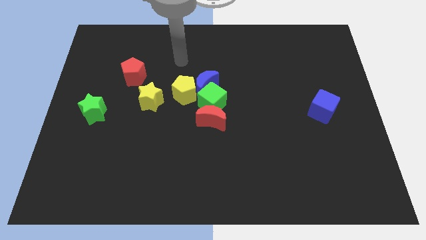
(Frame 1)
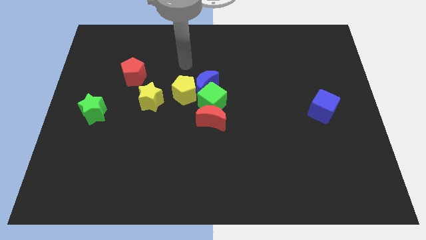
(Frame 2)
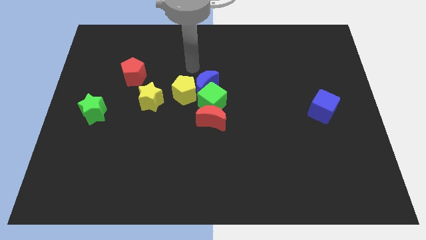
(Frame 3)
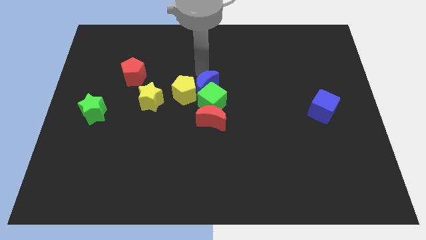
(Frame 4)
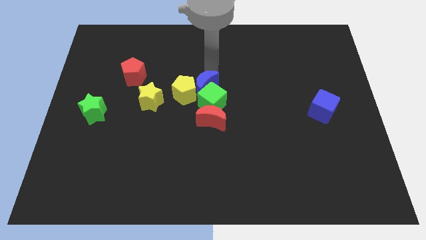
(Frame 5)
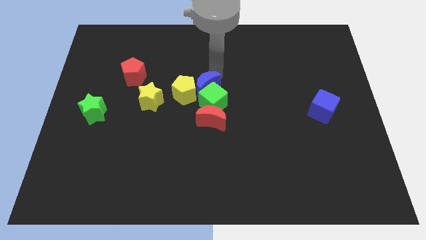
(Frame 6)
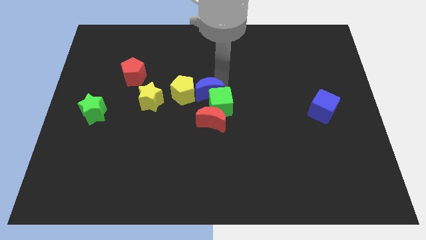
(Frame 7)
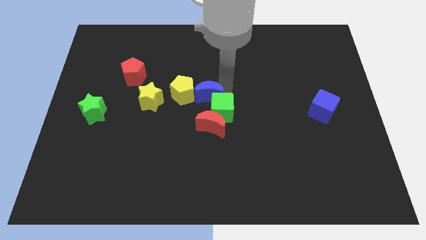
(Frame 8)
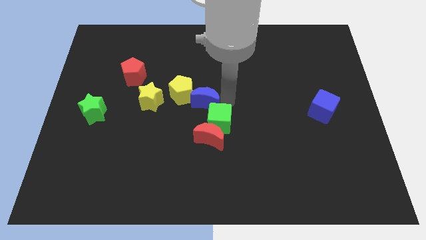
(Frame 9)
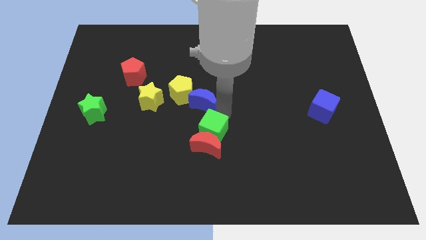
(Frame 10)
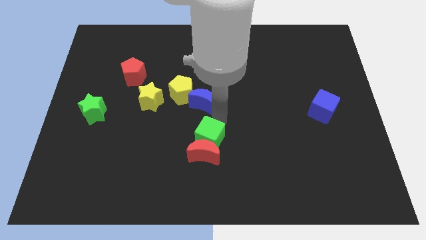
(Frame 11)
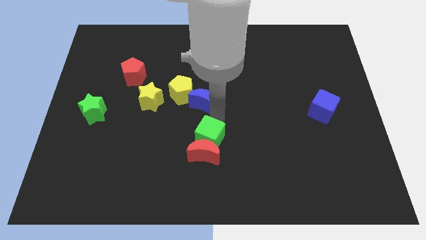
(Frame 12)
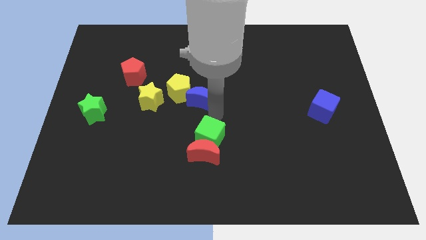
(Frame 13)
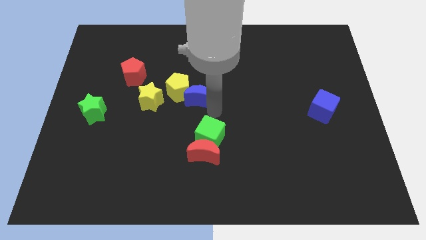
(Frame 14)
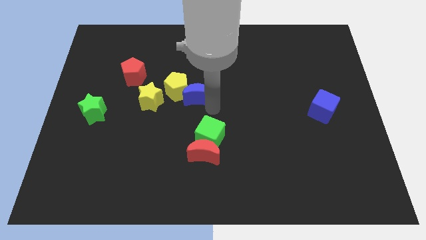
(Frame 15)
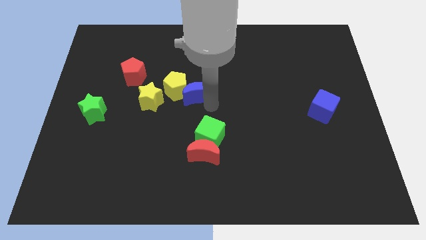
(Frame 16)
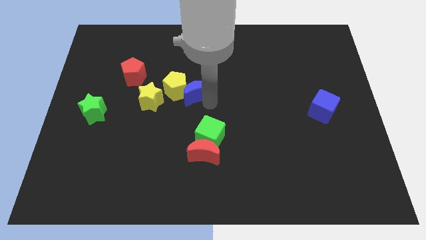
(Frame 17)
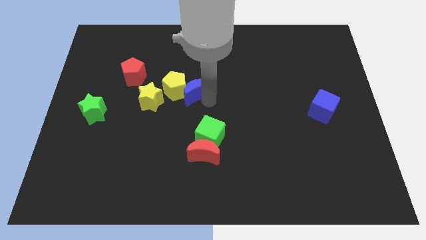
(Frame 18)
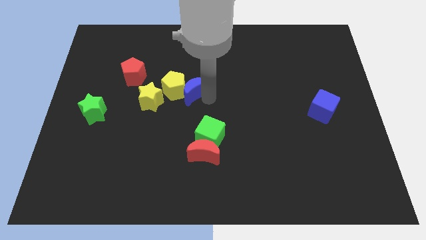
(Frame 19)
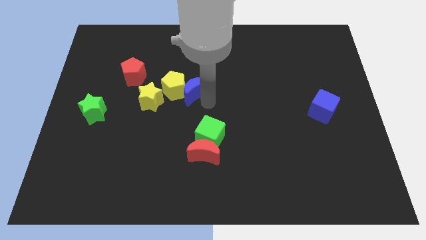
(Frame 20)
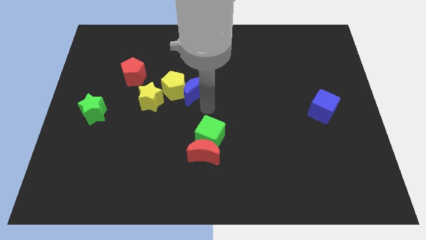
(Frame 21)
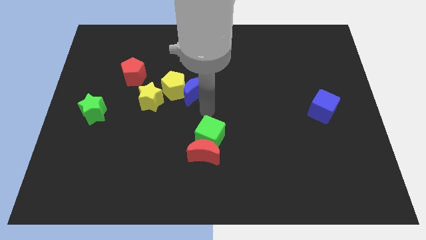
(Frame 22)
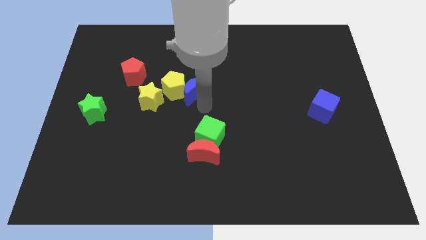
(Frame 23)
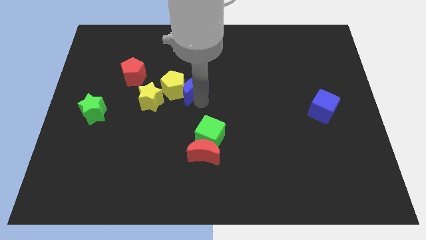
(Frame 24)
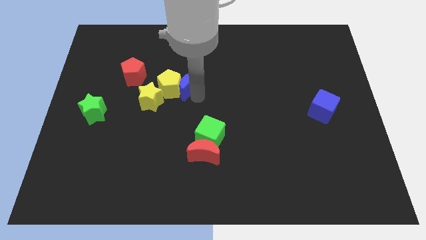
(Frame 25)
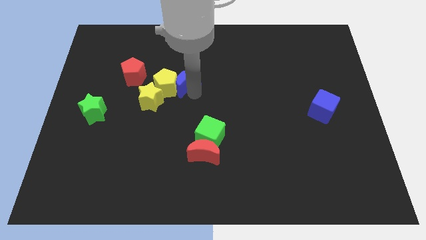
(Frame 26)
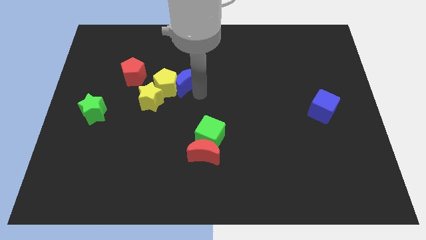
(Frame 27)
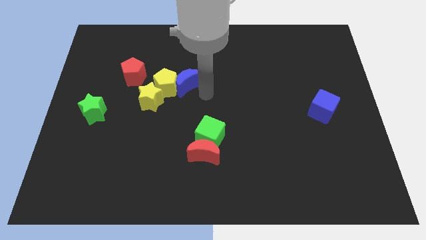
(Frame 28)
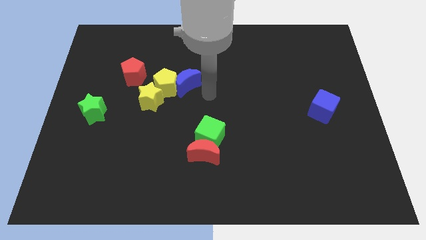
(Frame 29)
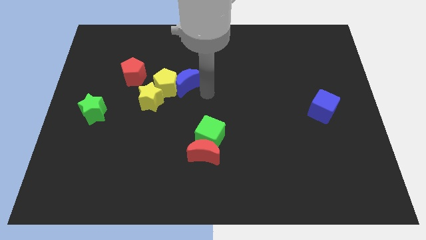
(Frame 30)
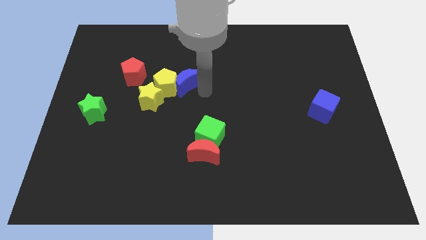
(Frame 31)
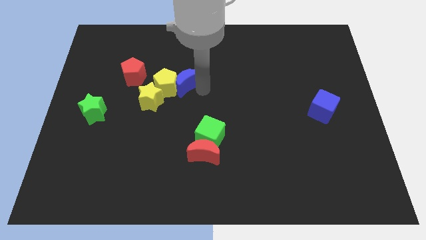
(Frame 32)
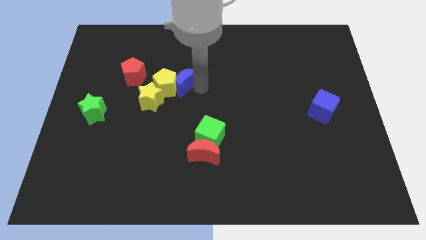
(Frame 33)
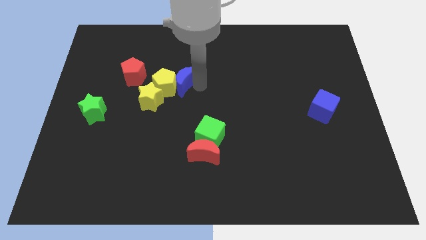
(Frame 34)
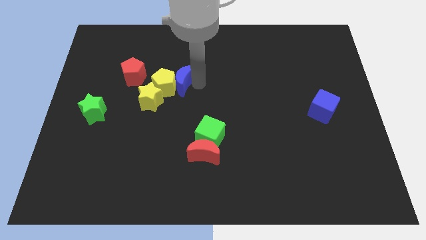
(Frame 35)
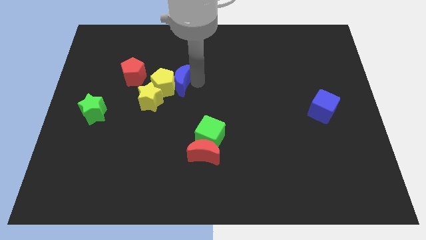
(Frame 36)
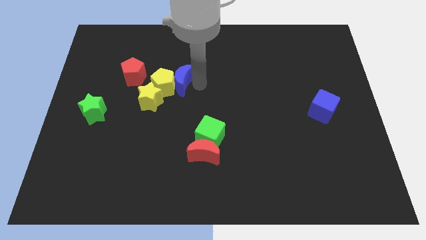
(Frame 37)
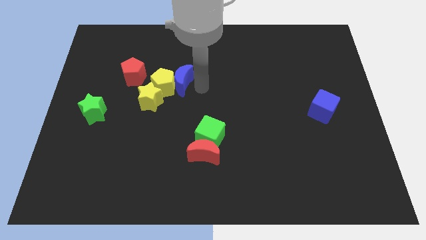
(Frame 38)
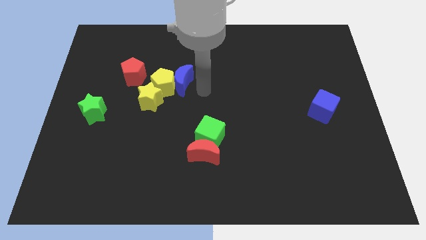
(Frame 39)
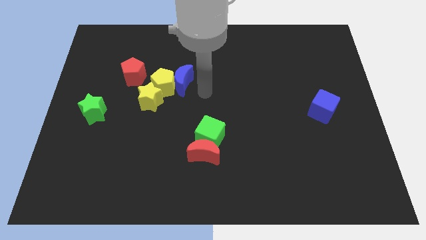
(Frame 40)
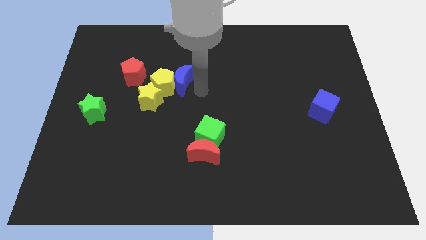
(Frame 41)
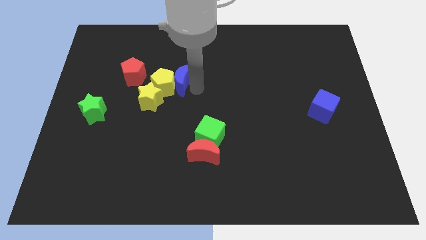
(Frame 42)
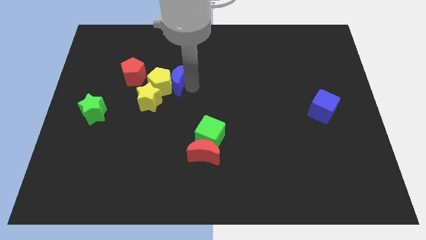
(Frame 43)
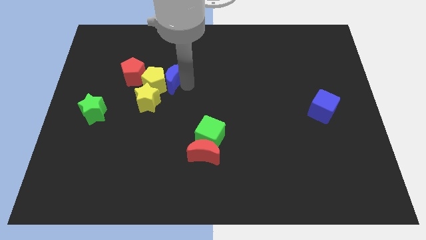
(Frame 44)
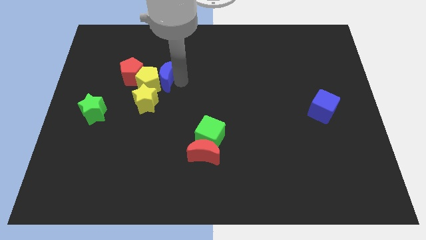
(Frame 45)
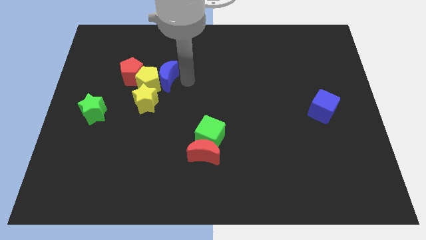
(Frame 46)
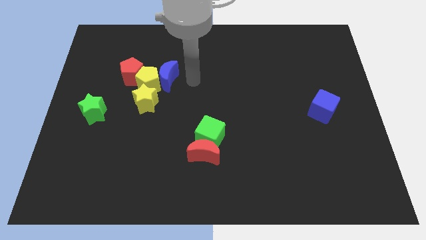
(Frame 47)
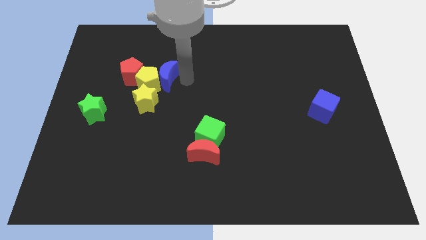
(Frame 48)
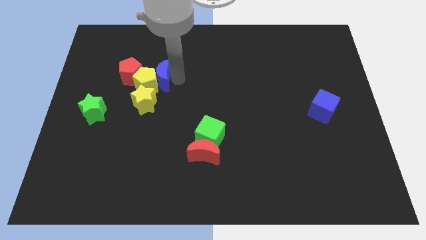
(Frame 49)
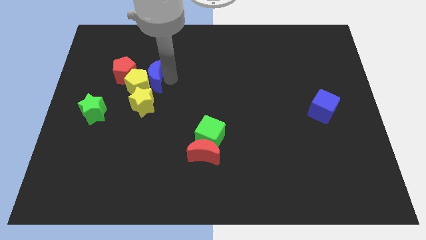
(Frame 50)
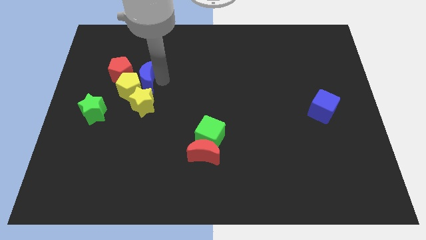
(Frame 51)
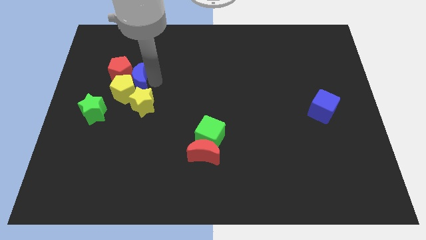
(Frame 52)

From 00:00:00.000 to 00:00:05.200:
push the blue moon to the red pentagon

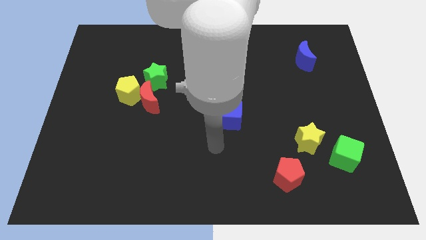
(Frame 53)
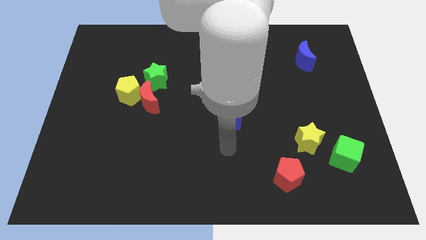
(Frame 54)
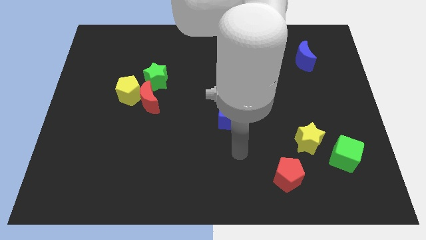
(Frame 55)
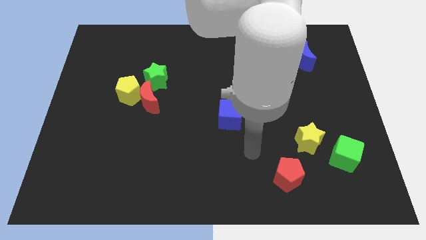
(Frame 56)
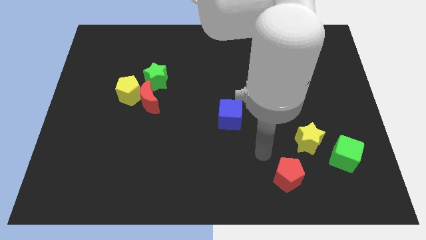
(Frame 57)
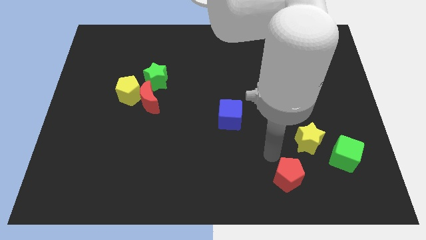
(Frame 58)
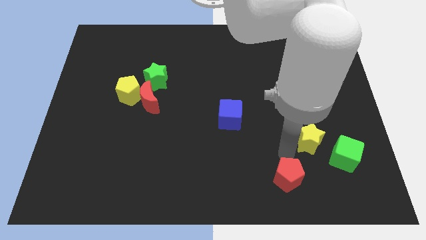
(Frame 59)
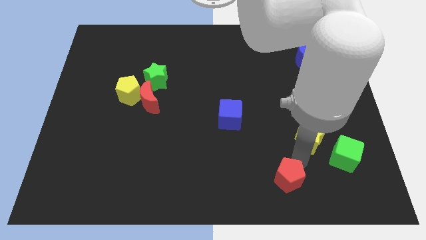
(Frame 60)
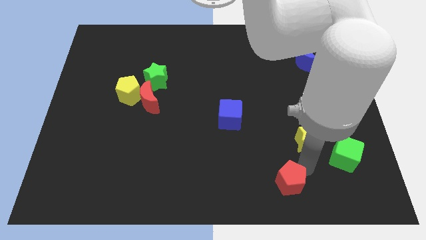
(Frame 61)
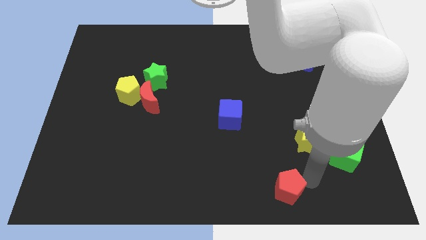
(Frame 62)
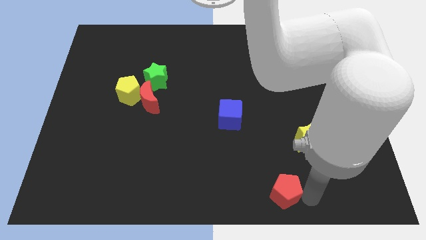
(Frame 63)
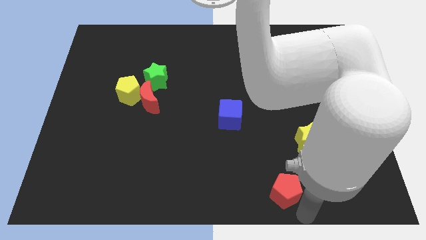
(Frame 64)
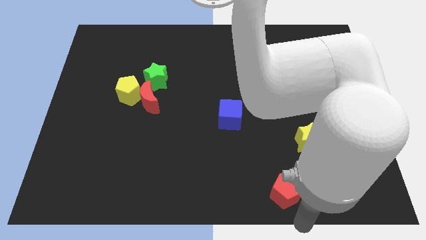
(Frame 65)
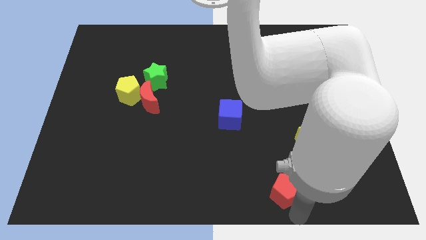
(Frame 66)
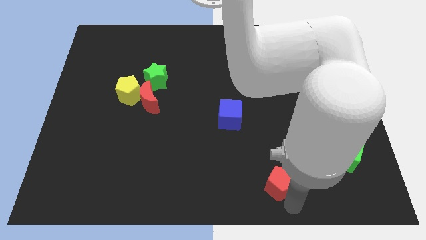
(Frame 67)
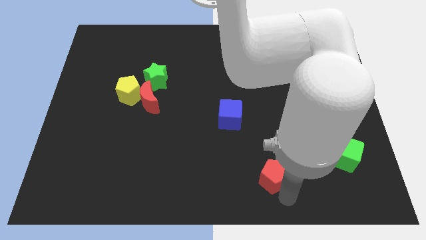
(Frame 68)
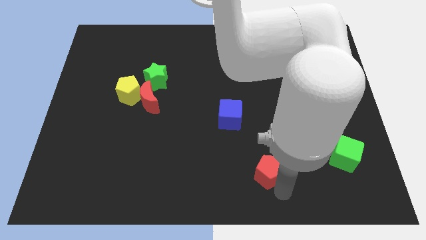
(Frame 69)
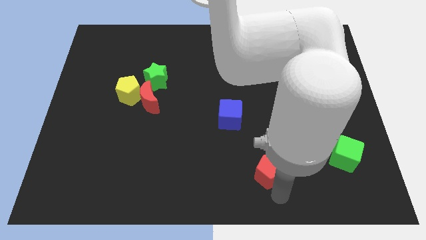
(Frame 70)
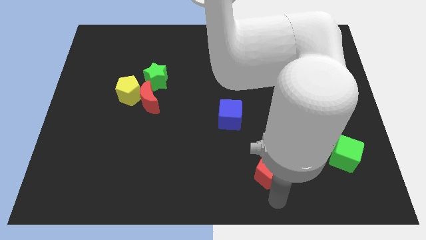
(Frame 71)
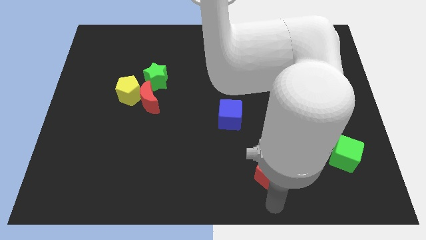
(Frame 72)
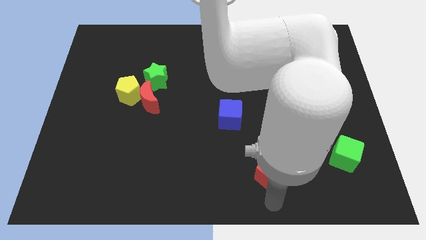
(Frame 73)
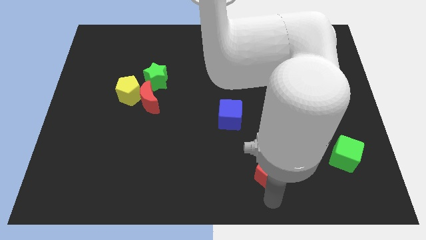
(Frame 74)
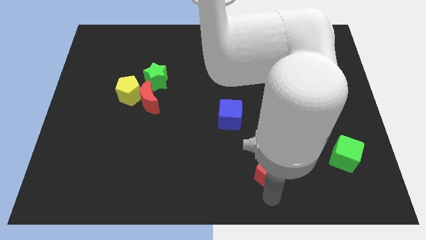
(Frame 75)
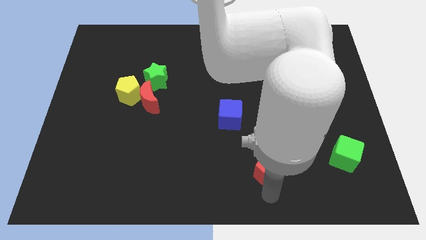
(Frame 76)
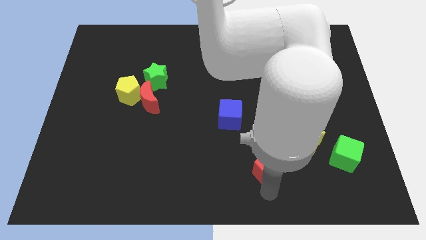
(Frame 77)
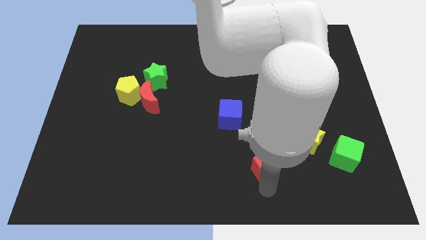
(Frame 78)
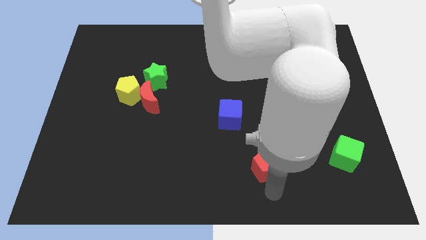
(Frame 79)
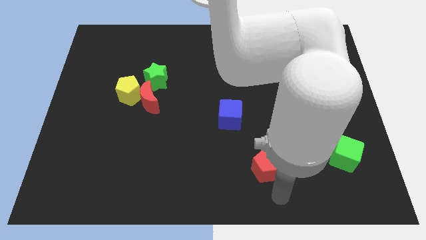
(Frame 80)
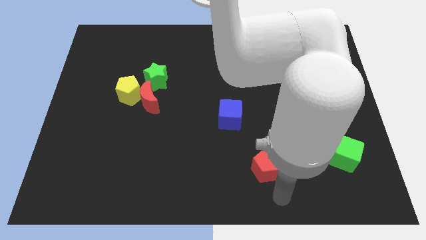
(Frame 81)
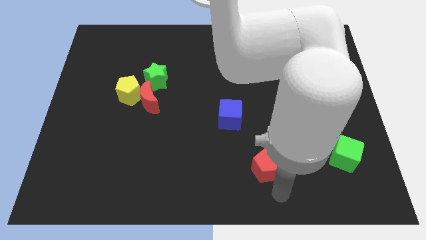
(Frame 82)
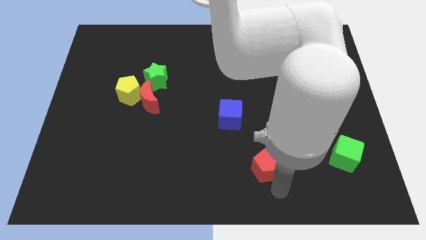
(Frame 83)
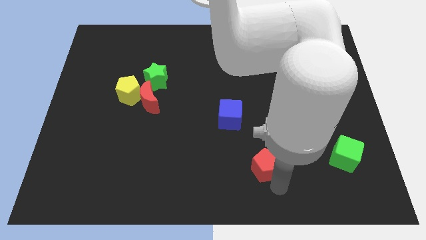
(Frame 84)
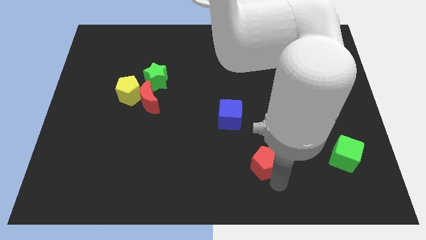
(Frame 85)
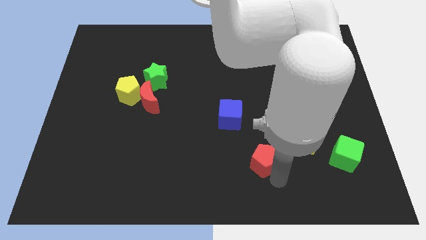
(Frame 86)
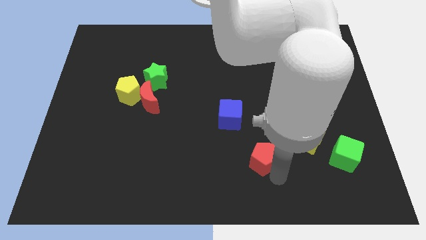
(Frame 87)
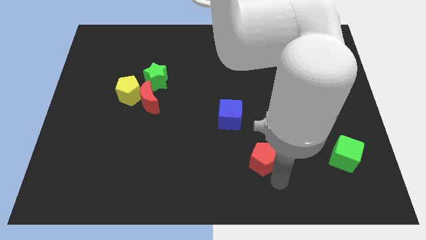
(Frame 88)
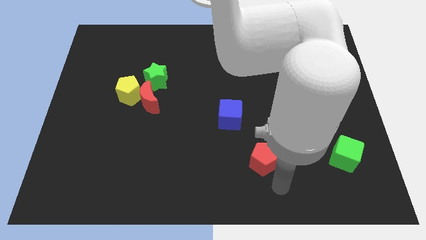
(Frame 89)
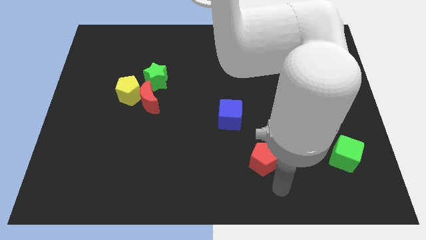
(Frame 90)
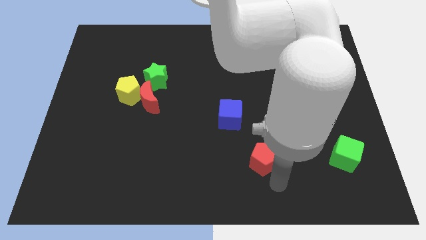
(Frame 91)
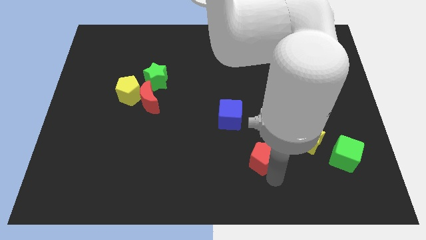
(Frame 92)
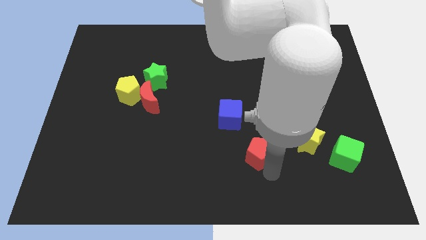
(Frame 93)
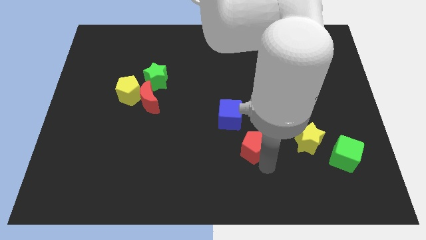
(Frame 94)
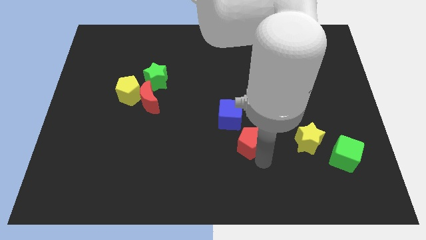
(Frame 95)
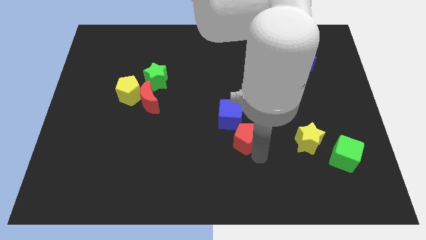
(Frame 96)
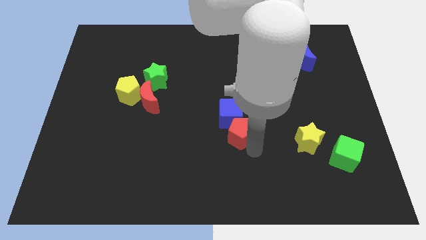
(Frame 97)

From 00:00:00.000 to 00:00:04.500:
push the red pentagon next to the blue cube
